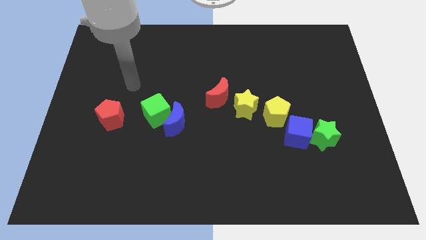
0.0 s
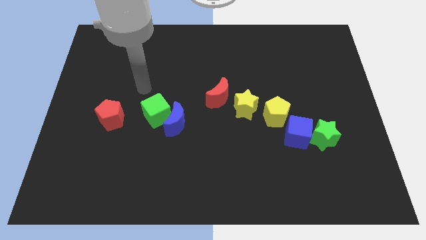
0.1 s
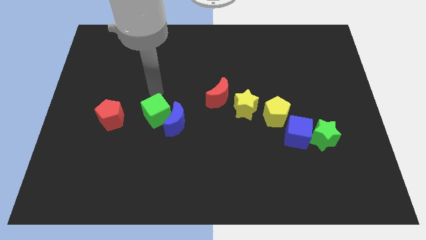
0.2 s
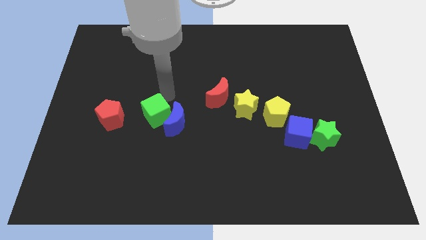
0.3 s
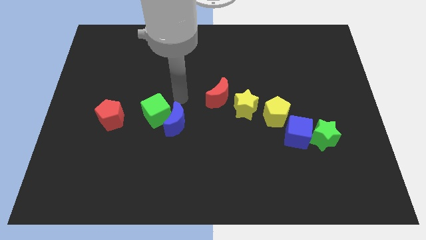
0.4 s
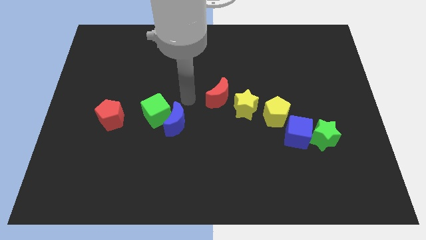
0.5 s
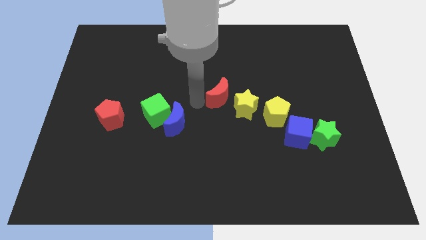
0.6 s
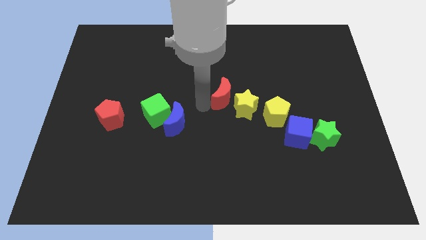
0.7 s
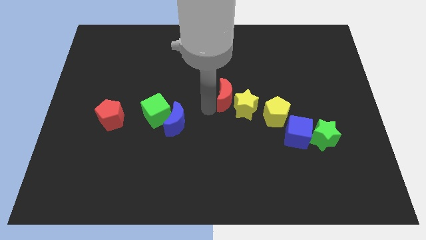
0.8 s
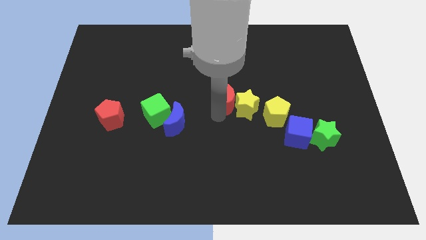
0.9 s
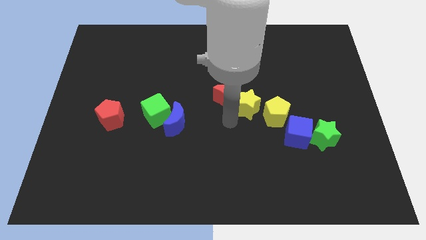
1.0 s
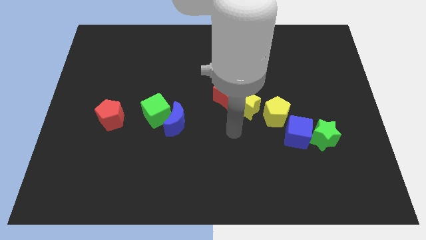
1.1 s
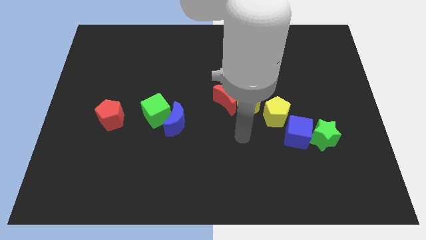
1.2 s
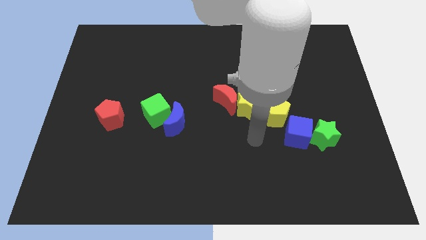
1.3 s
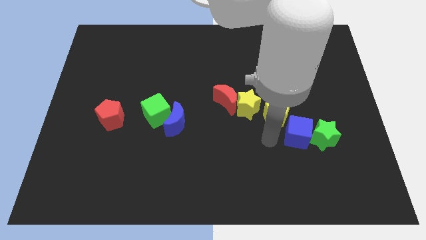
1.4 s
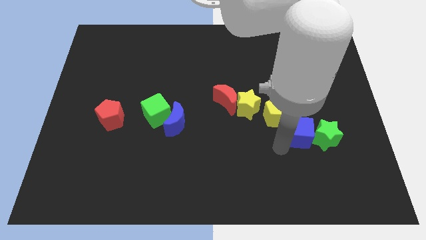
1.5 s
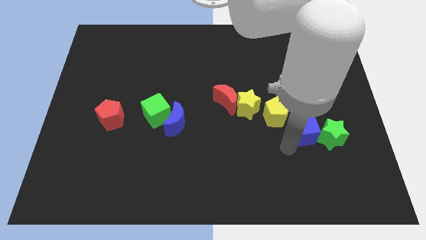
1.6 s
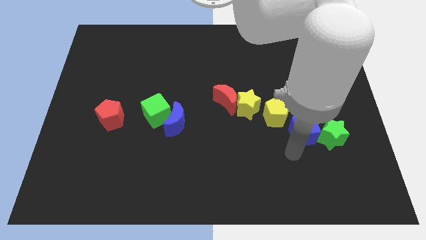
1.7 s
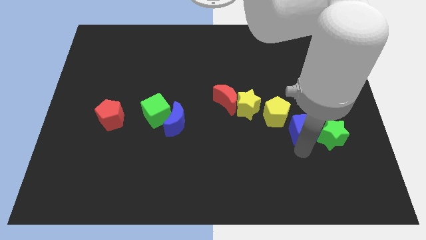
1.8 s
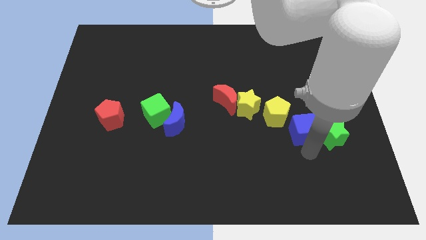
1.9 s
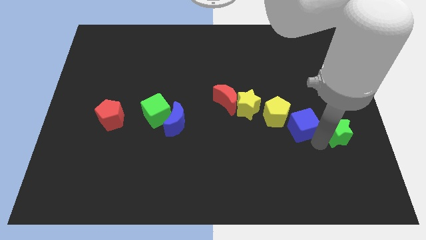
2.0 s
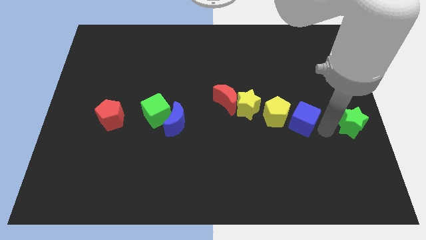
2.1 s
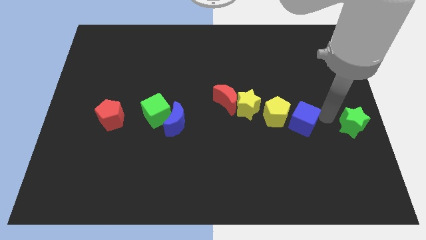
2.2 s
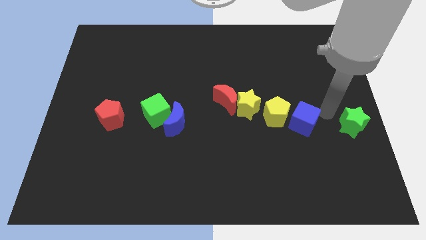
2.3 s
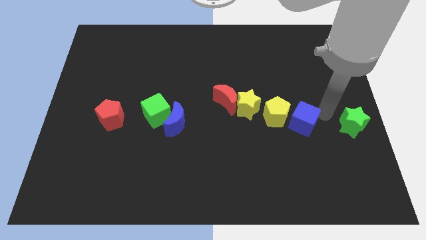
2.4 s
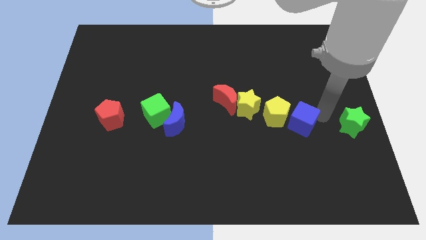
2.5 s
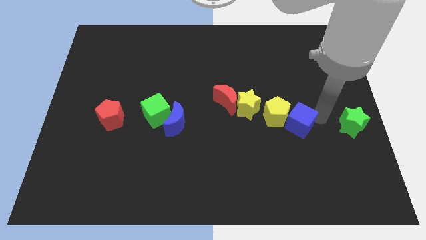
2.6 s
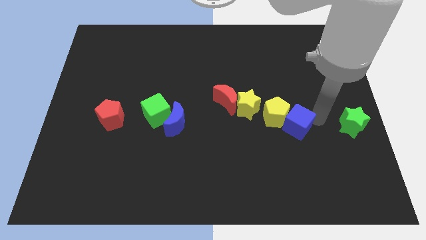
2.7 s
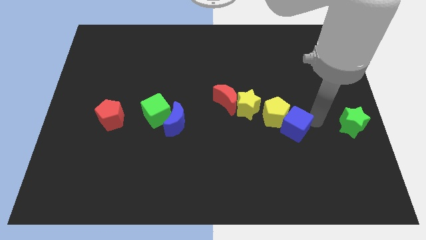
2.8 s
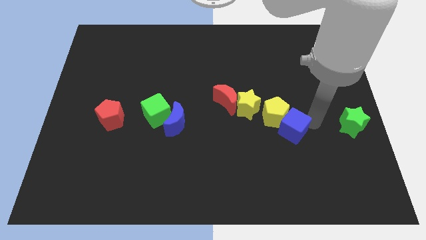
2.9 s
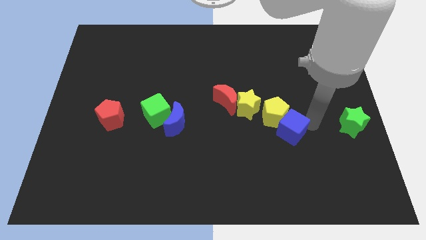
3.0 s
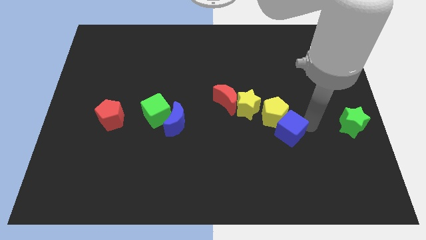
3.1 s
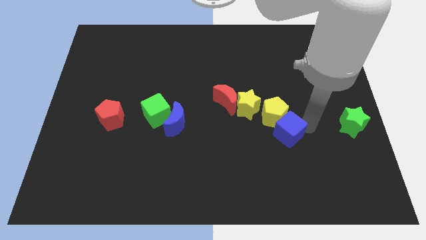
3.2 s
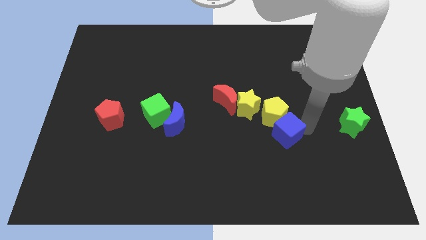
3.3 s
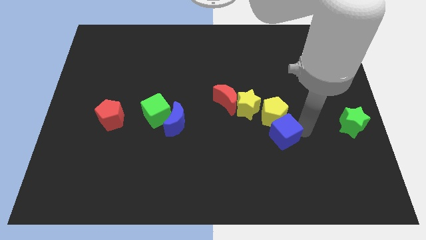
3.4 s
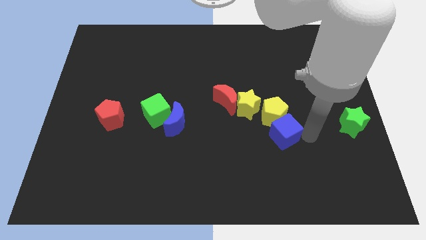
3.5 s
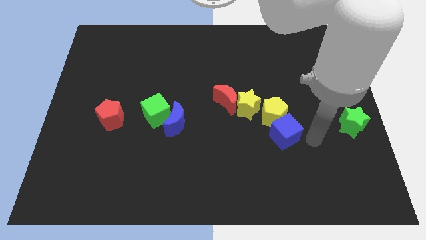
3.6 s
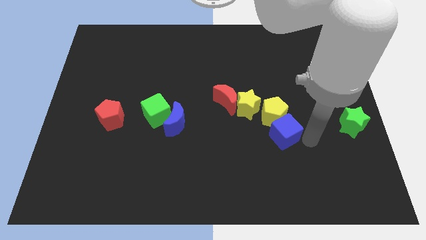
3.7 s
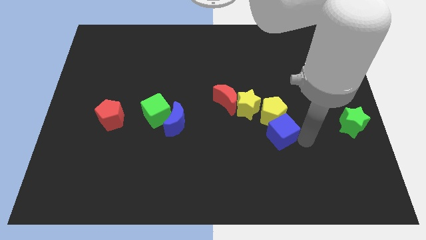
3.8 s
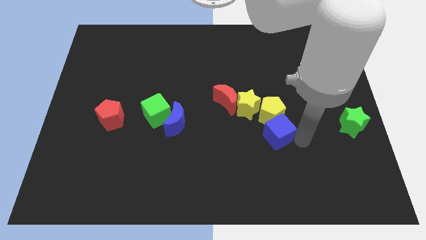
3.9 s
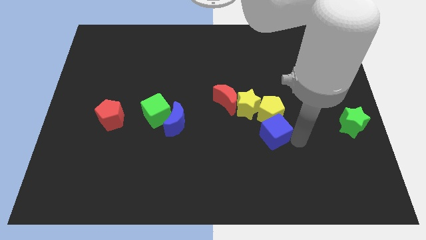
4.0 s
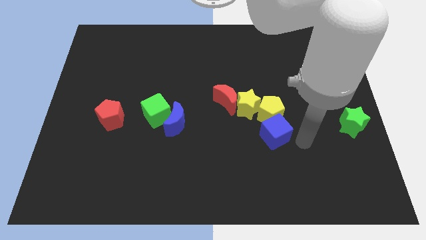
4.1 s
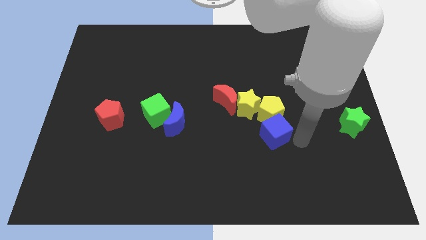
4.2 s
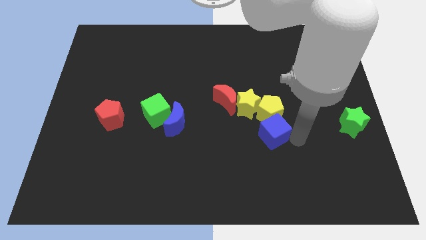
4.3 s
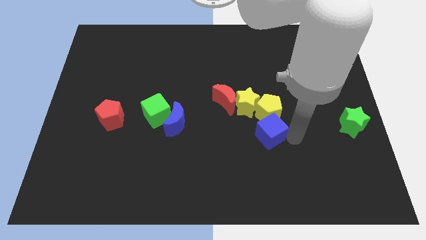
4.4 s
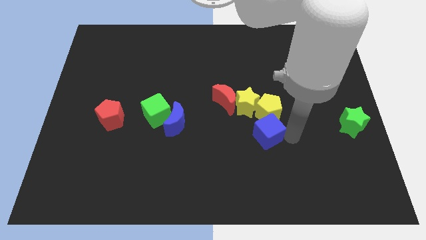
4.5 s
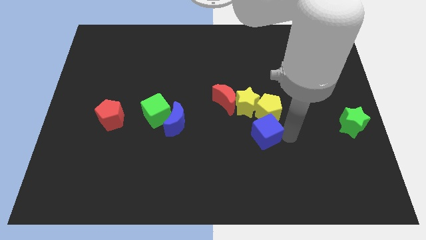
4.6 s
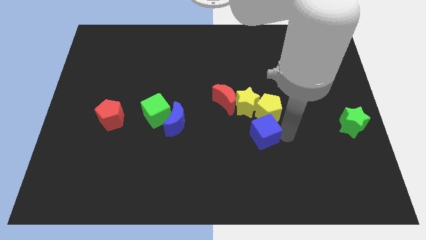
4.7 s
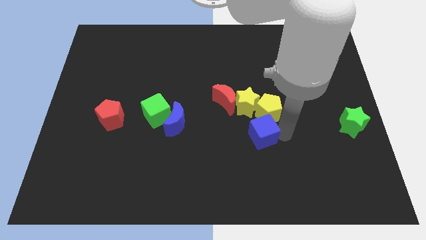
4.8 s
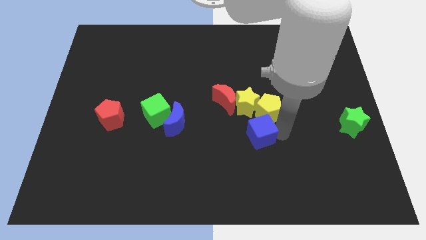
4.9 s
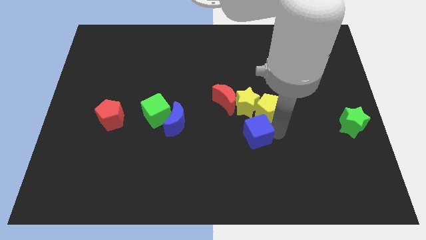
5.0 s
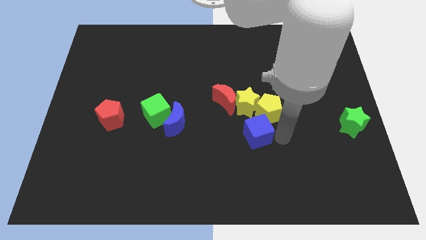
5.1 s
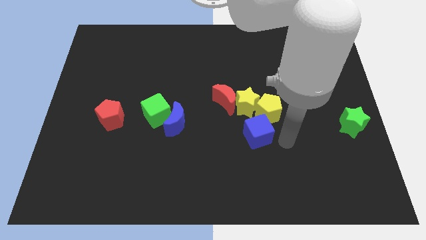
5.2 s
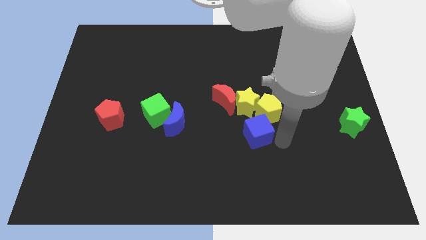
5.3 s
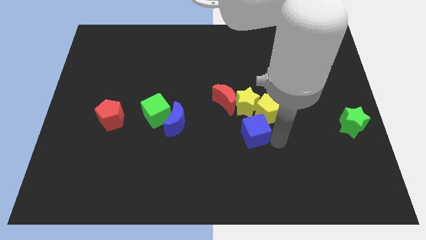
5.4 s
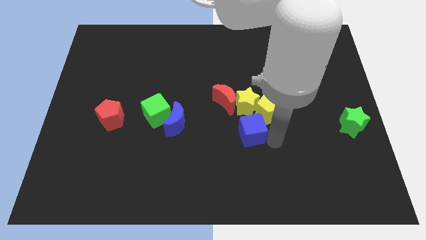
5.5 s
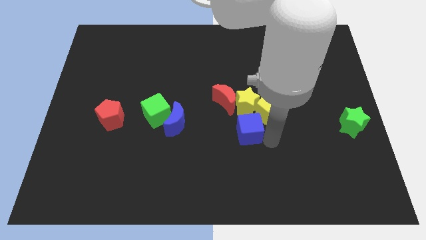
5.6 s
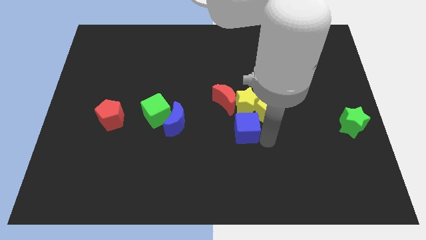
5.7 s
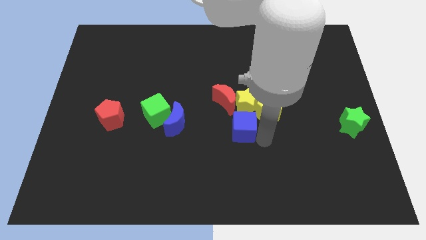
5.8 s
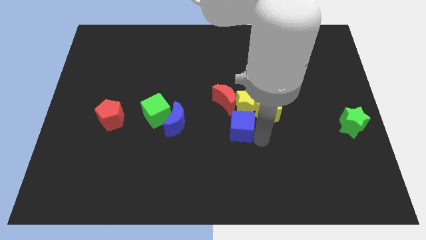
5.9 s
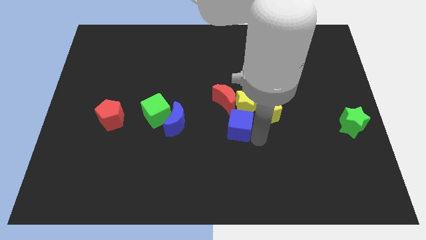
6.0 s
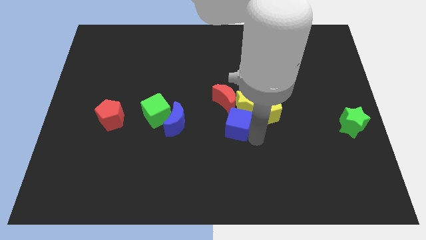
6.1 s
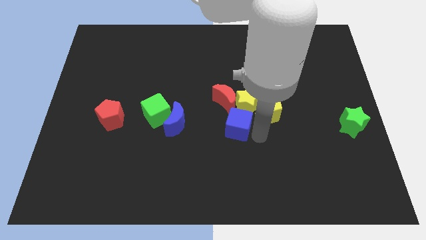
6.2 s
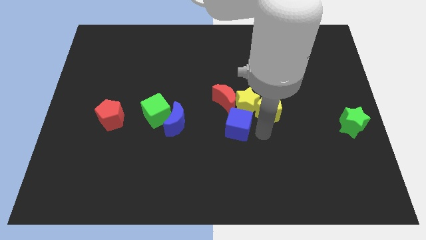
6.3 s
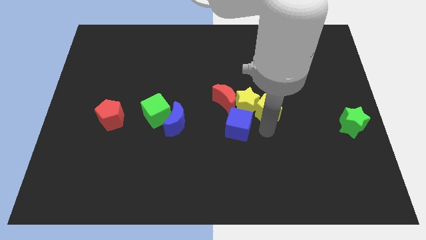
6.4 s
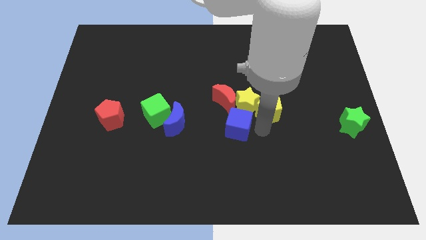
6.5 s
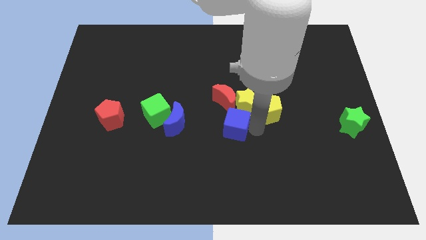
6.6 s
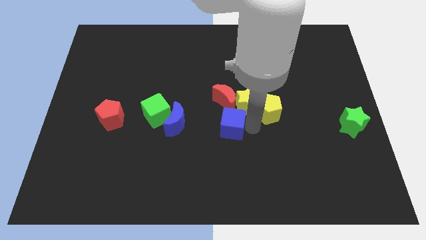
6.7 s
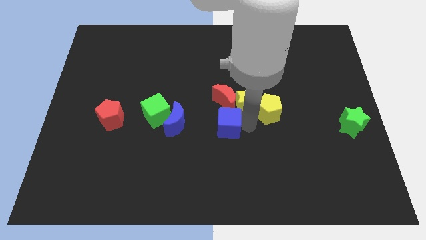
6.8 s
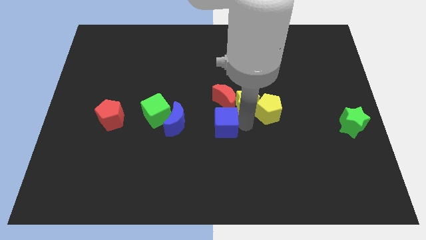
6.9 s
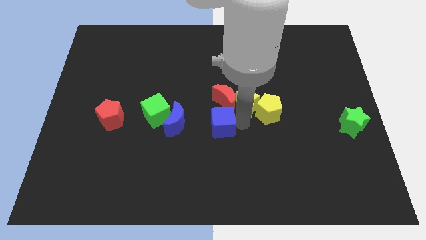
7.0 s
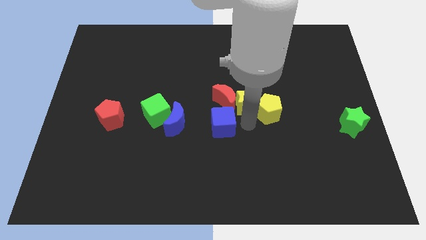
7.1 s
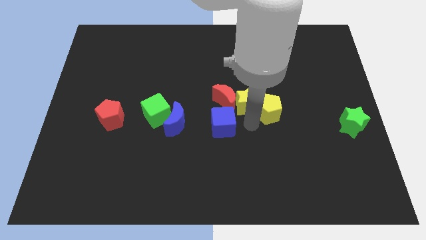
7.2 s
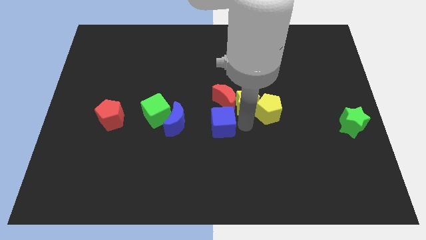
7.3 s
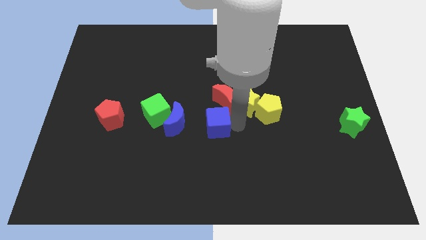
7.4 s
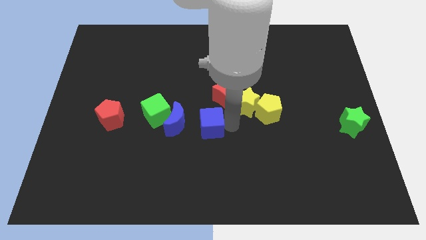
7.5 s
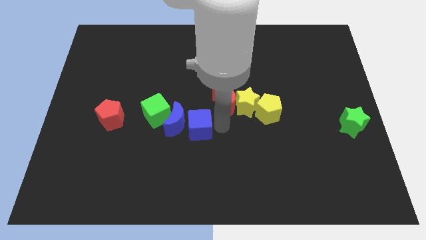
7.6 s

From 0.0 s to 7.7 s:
push the blue cube close to the blue moon
